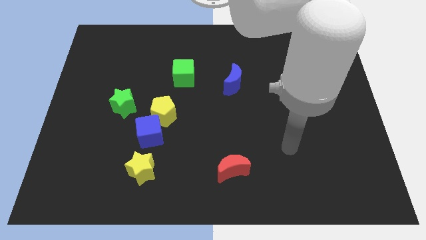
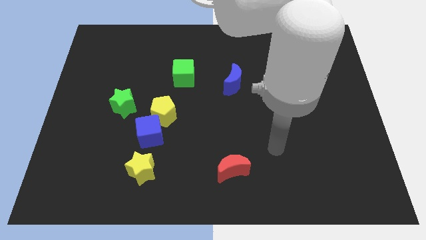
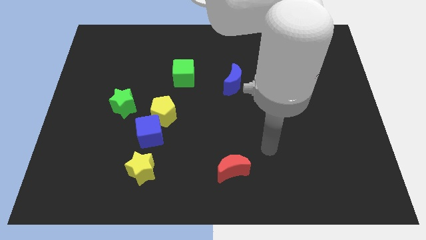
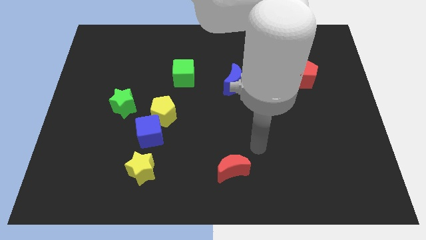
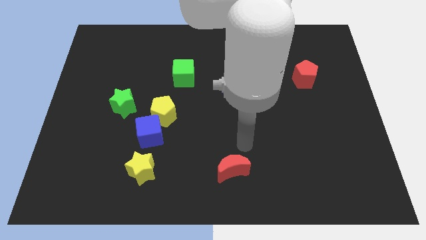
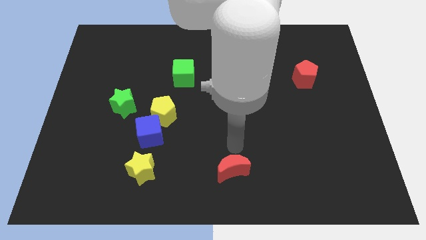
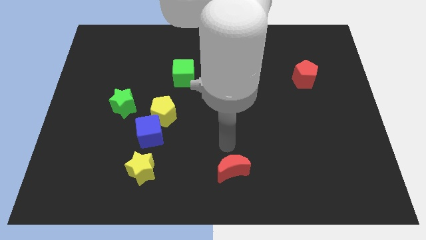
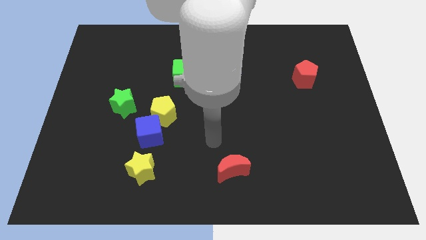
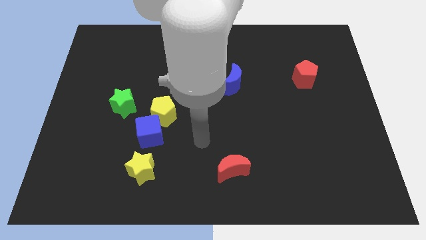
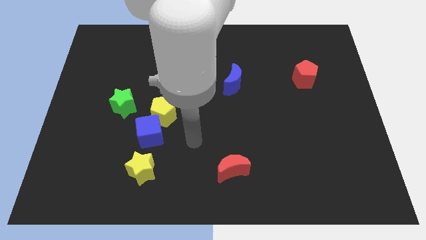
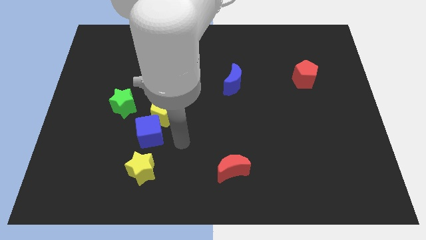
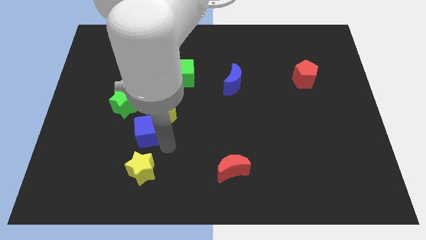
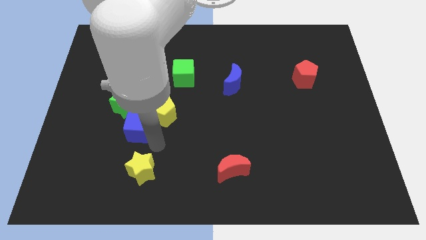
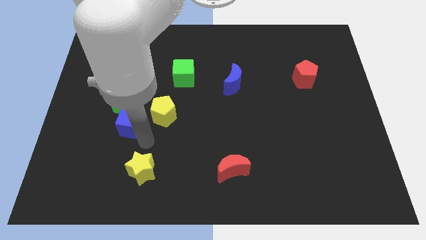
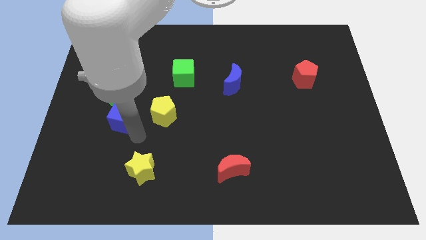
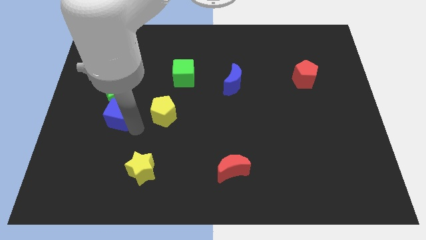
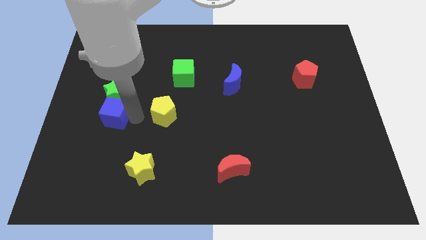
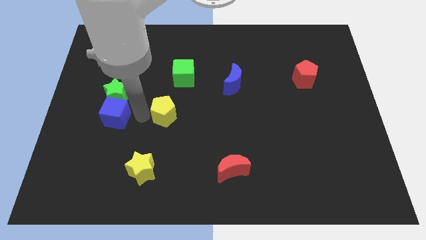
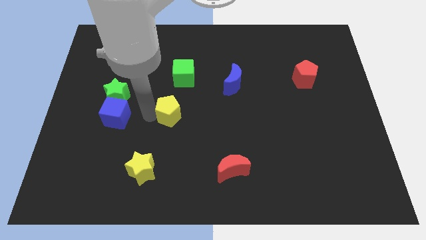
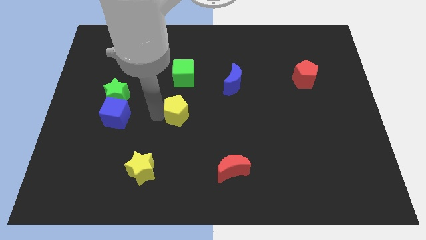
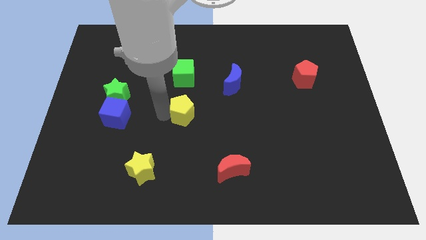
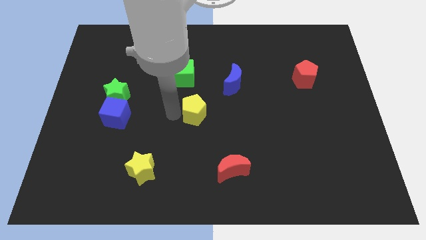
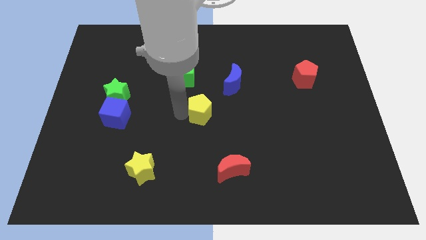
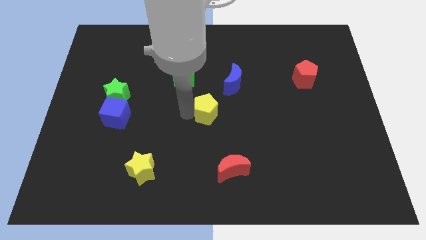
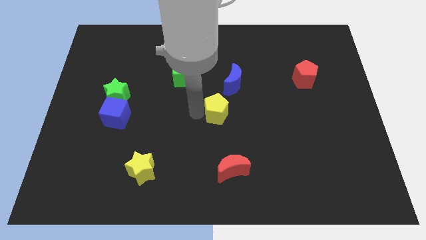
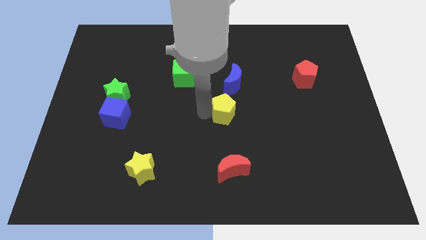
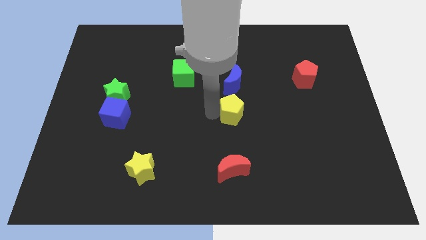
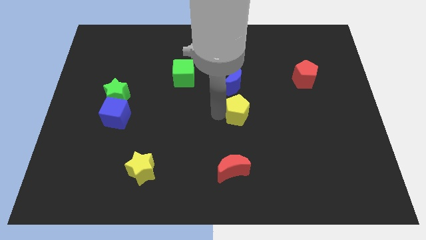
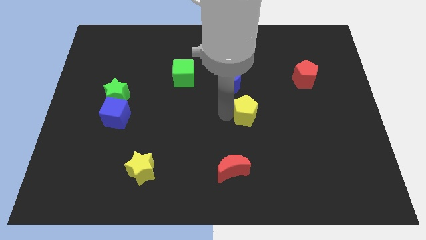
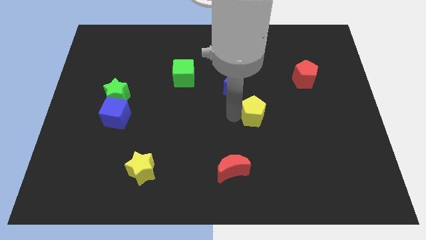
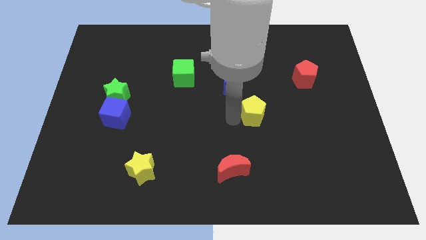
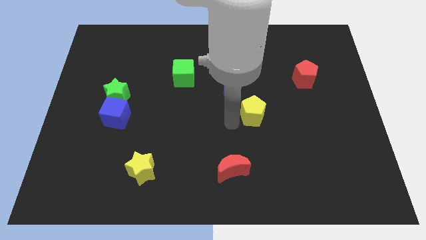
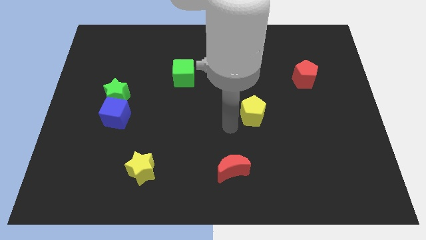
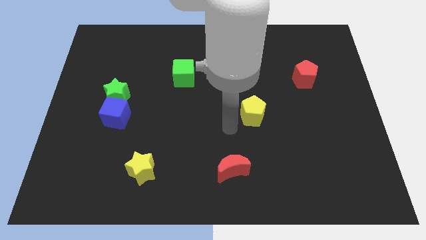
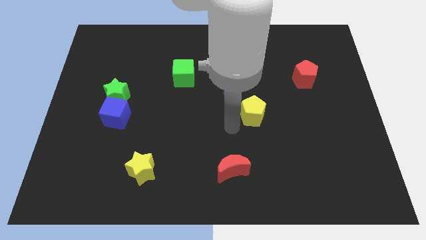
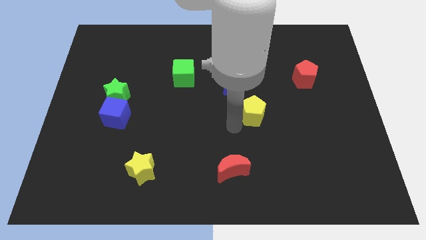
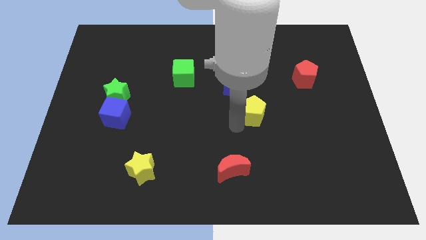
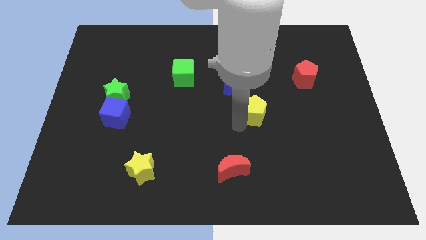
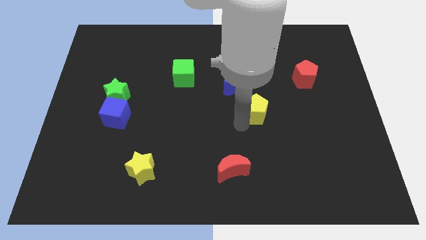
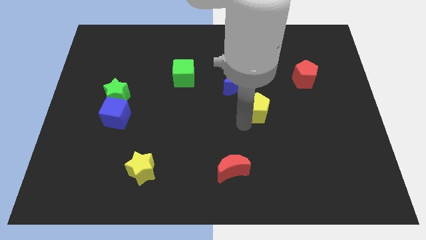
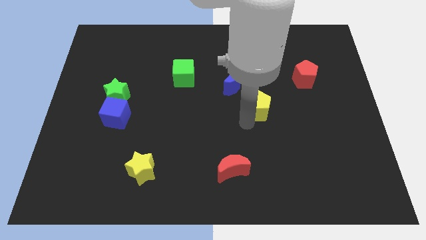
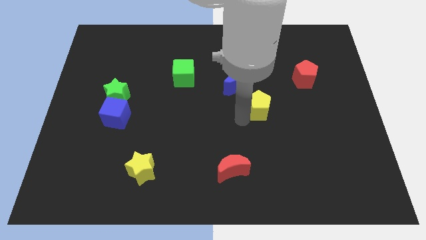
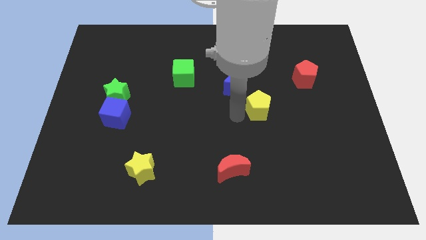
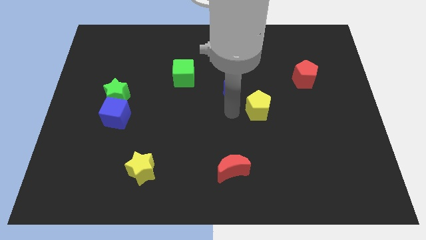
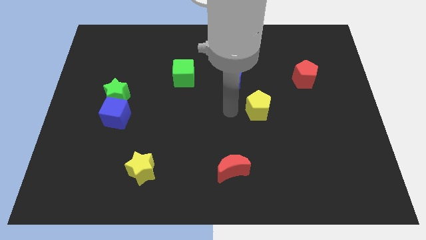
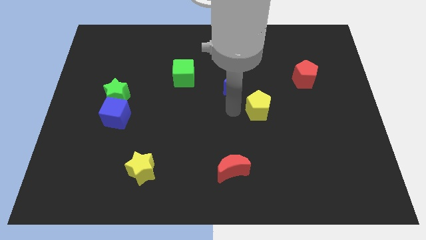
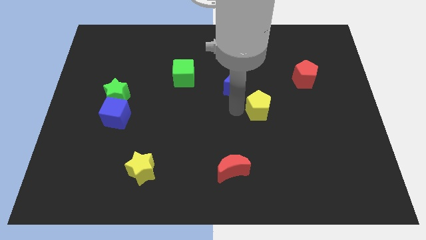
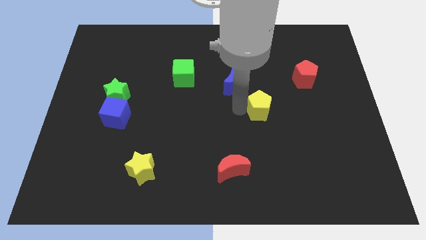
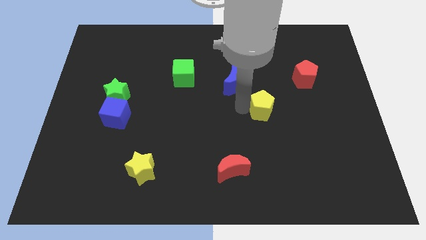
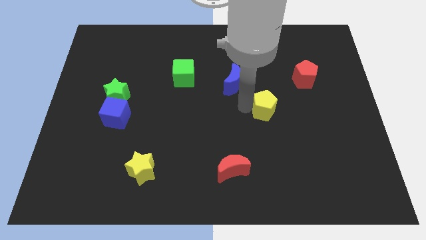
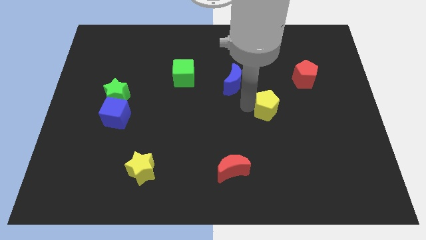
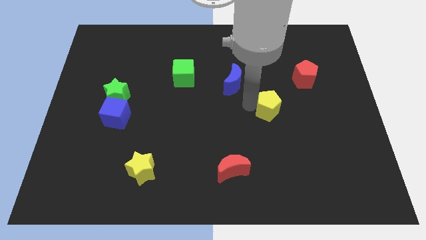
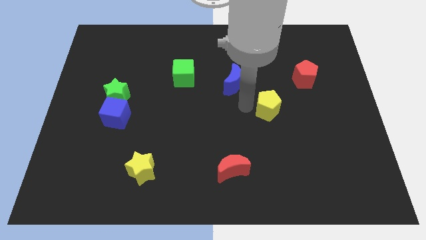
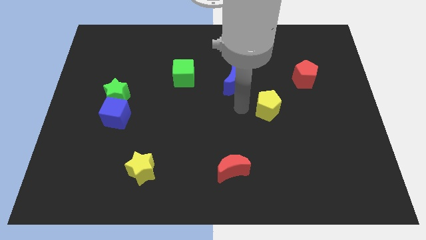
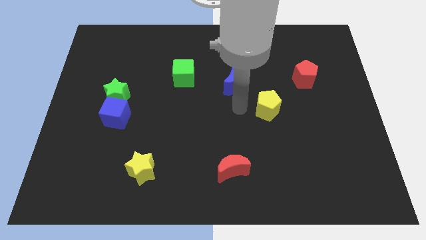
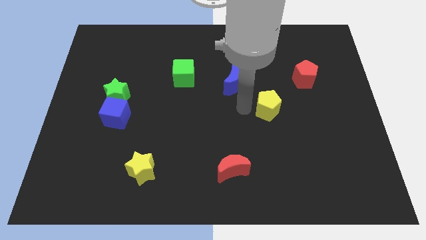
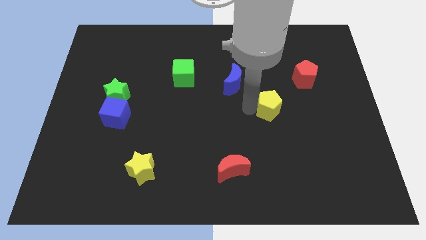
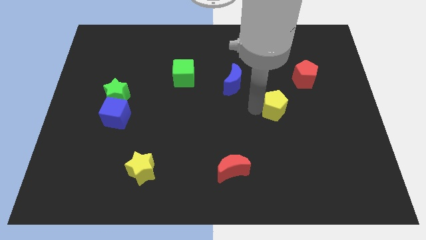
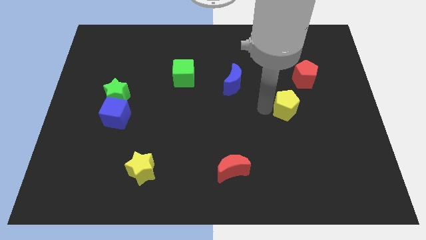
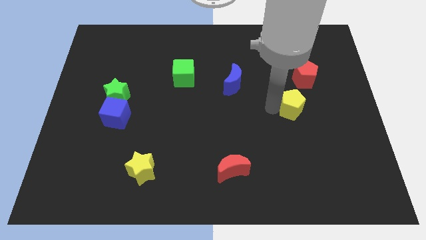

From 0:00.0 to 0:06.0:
slide the yellow pentagon below the red pentagon

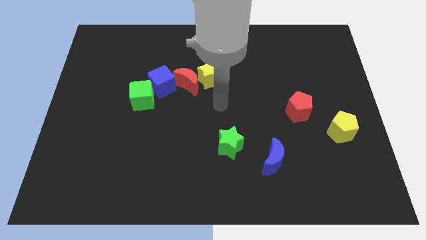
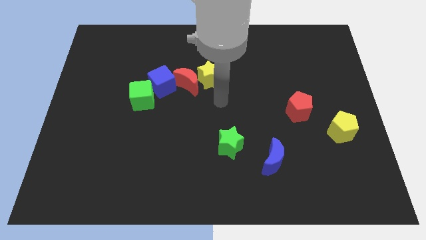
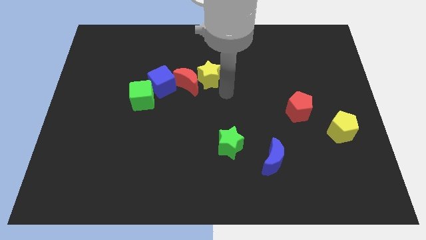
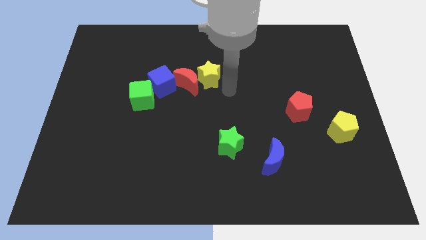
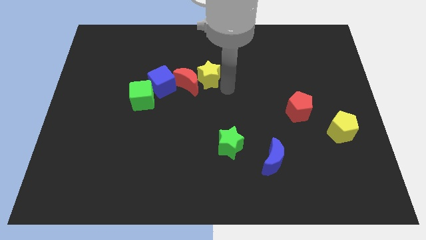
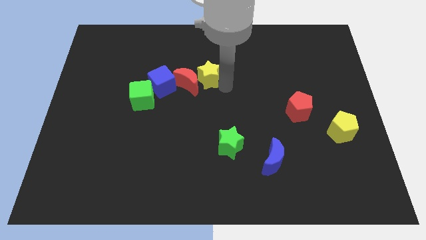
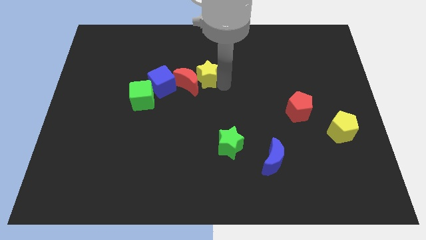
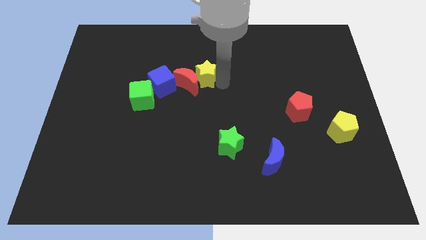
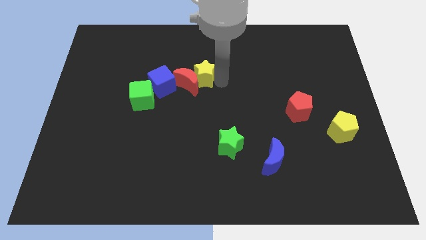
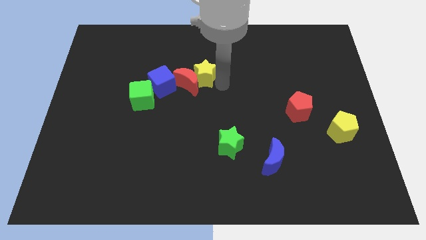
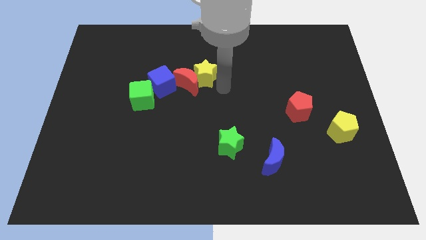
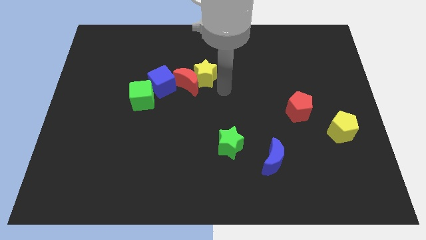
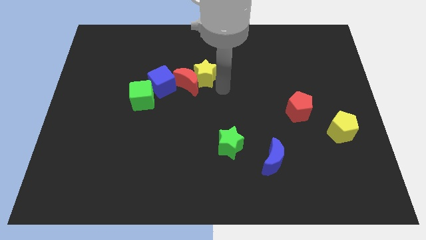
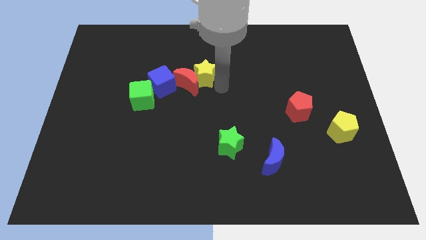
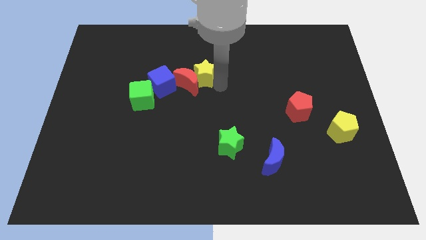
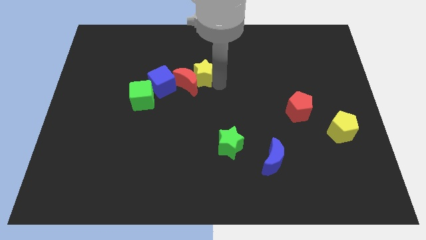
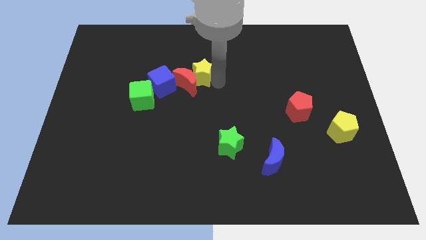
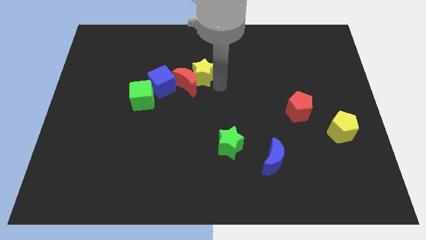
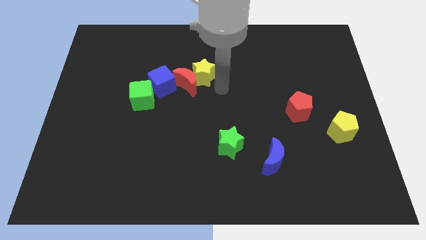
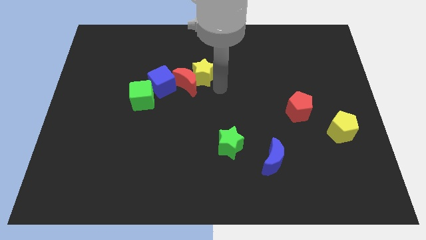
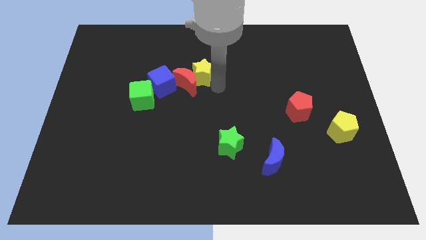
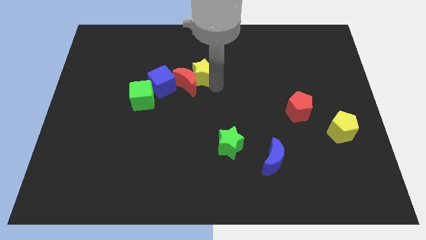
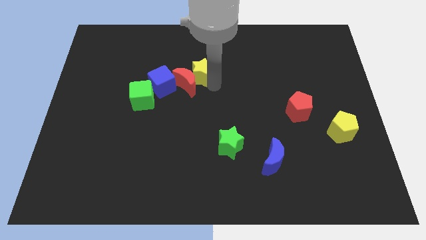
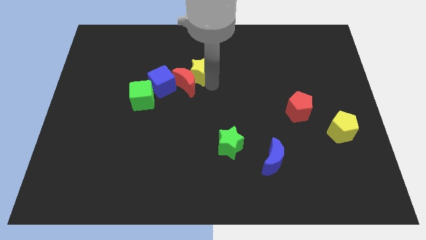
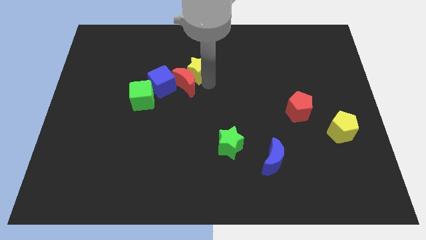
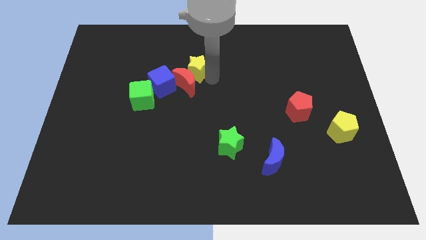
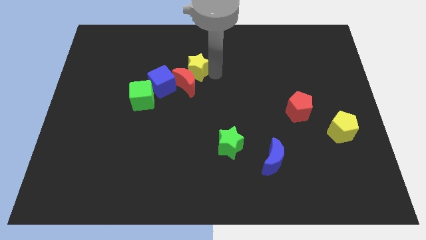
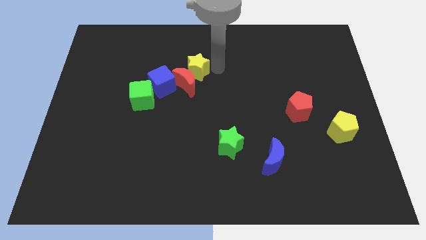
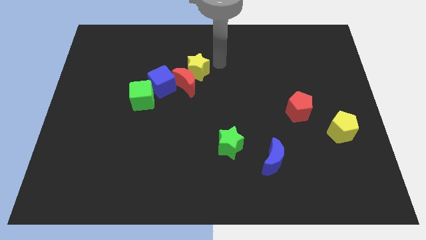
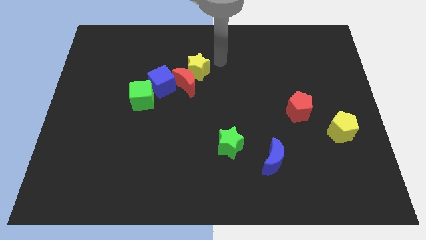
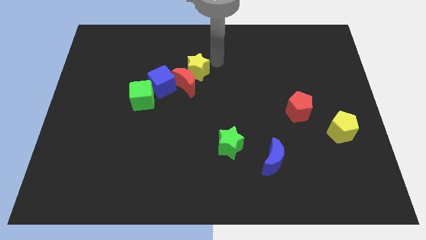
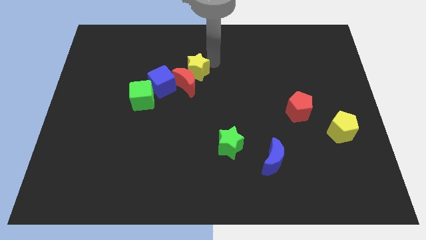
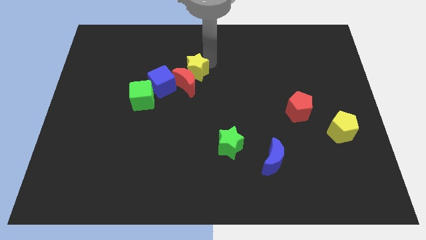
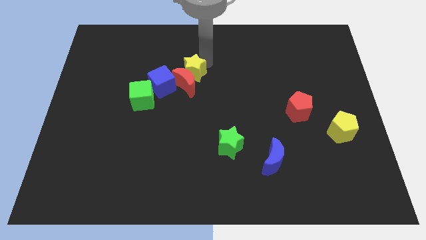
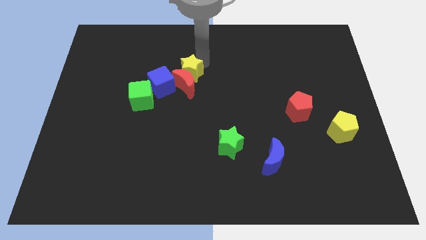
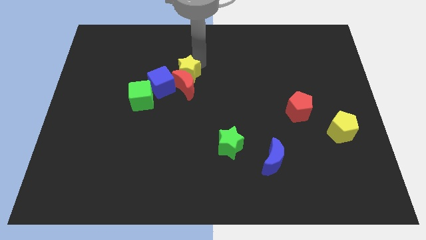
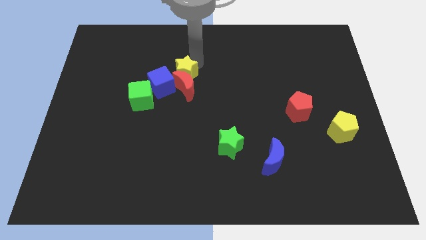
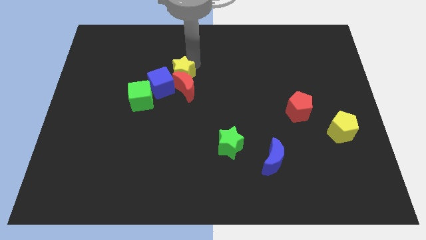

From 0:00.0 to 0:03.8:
push the yellow star diagonally up and to the right of the green cube
